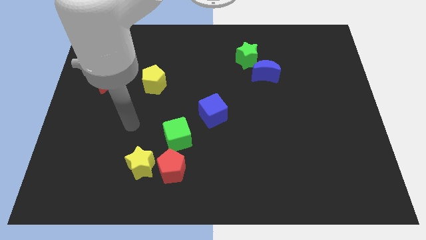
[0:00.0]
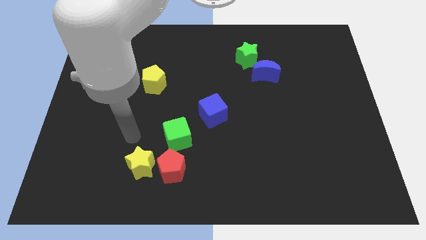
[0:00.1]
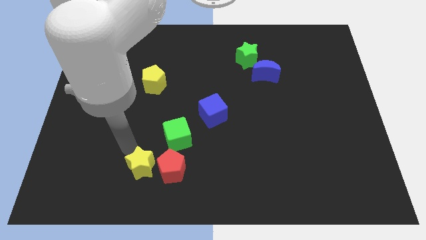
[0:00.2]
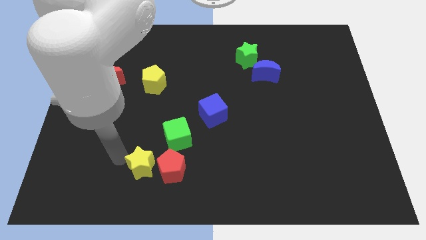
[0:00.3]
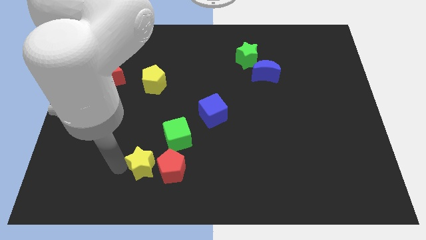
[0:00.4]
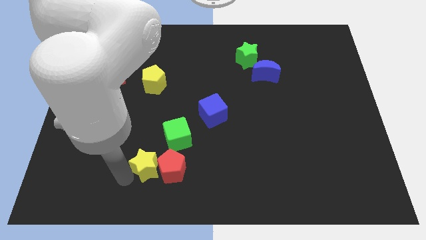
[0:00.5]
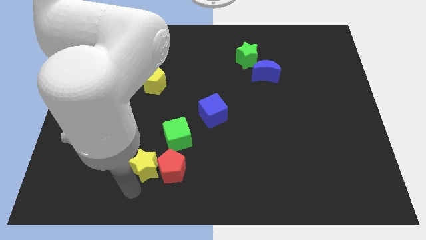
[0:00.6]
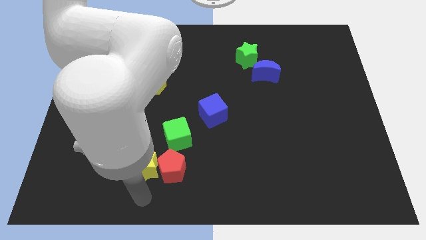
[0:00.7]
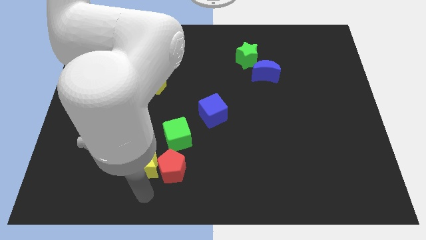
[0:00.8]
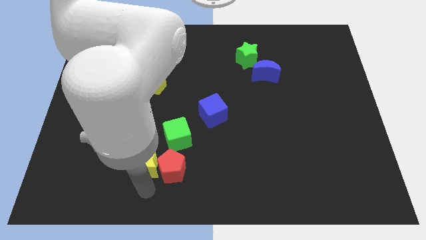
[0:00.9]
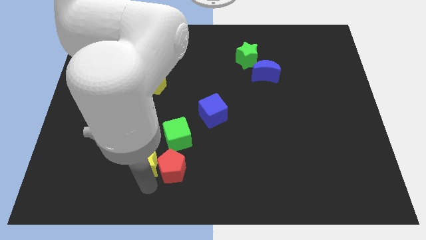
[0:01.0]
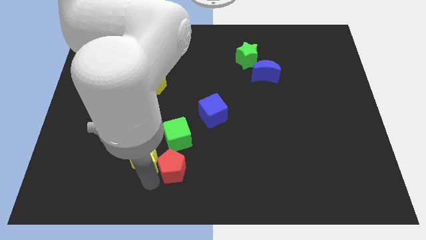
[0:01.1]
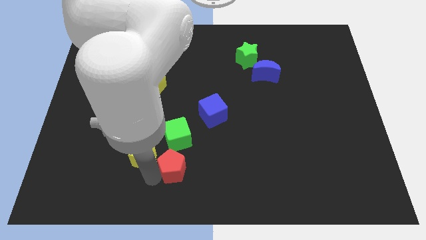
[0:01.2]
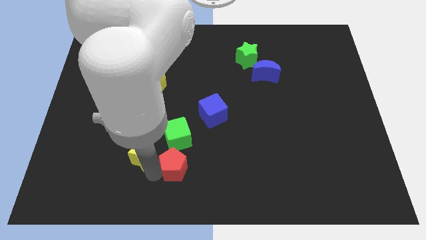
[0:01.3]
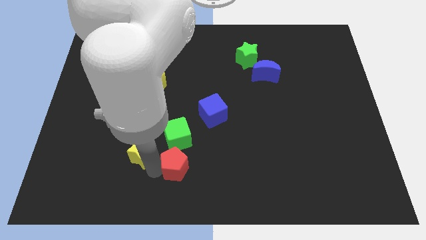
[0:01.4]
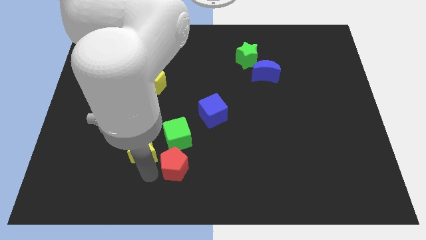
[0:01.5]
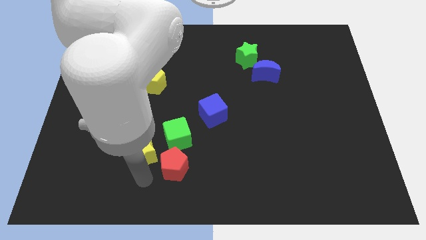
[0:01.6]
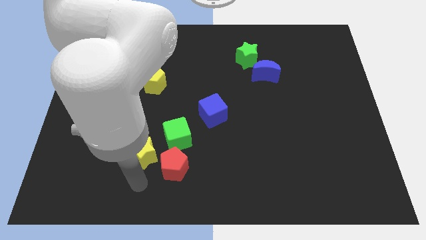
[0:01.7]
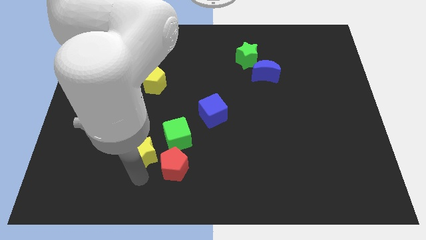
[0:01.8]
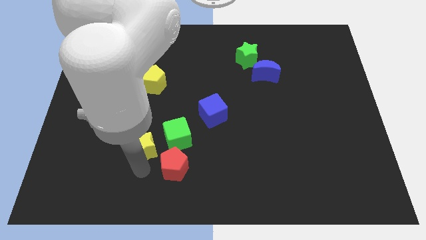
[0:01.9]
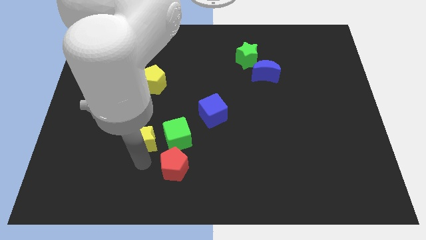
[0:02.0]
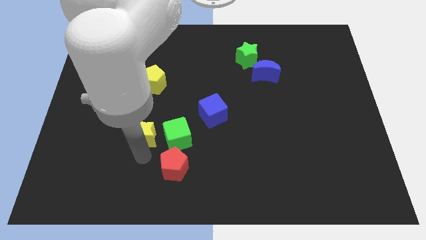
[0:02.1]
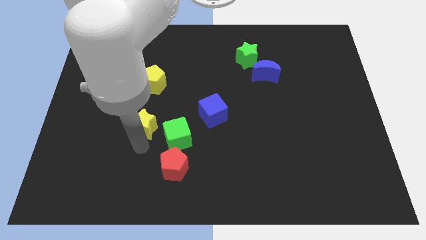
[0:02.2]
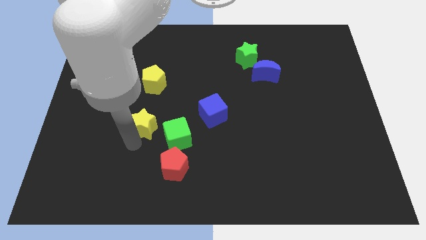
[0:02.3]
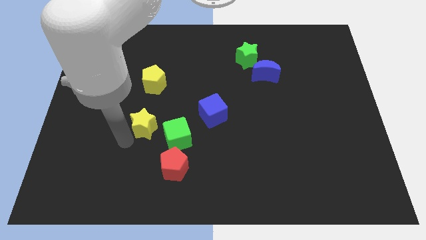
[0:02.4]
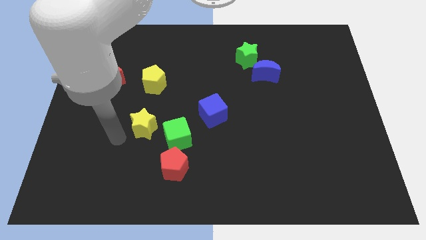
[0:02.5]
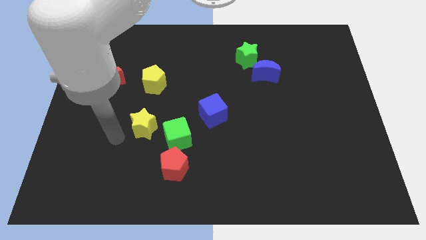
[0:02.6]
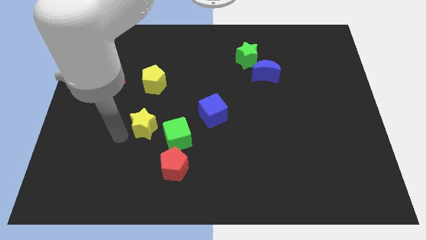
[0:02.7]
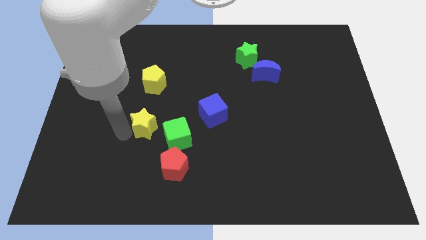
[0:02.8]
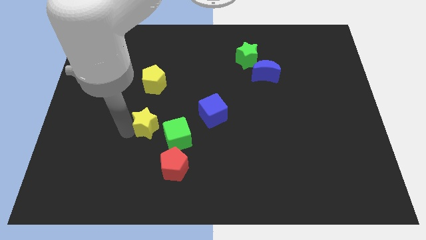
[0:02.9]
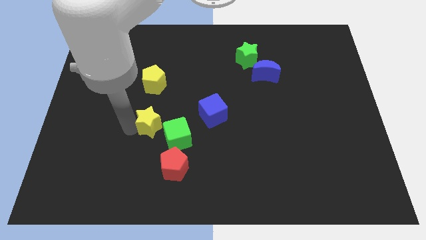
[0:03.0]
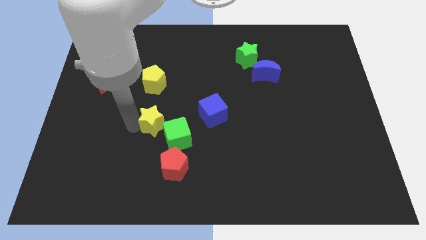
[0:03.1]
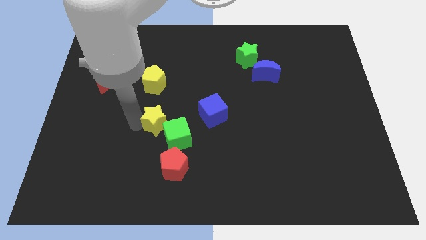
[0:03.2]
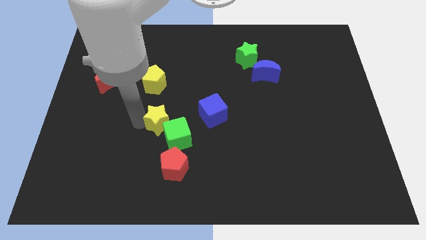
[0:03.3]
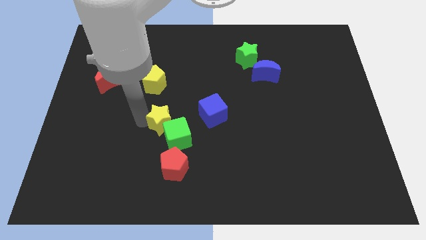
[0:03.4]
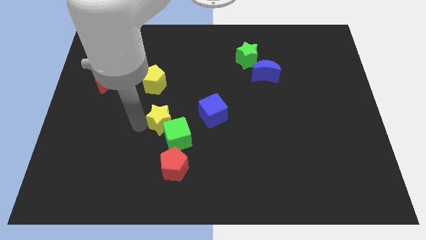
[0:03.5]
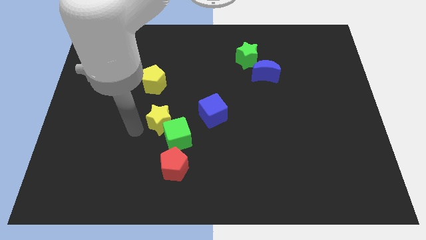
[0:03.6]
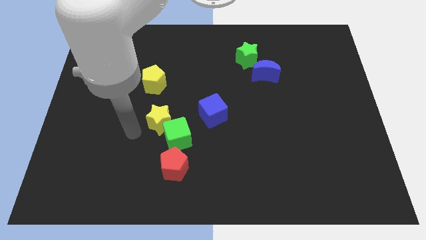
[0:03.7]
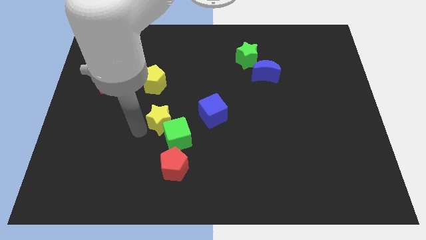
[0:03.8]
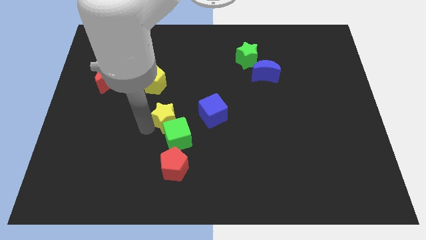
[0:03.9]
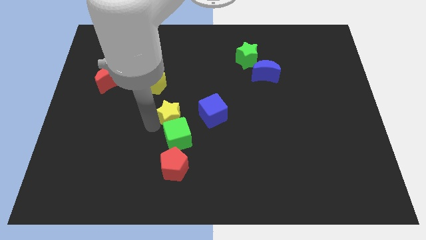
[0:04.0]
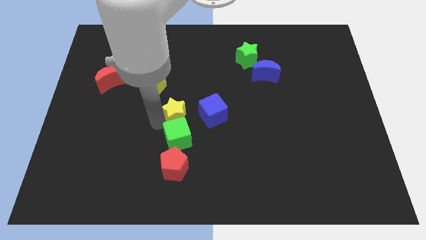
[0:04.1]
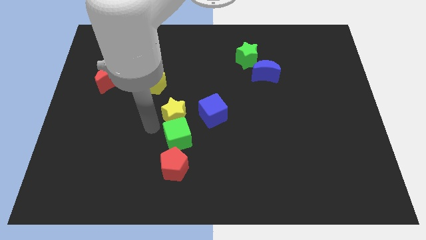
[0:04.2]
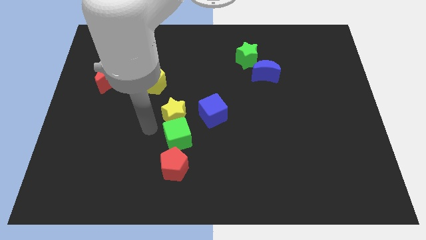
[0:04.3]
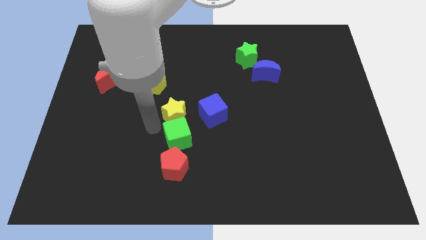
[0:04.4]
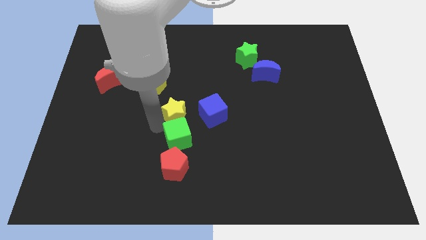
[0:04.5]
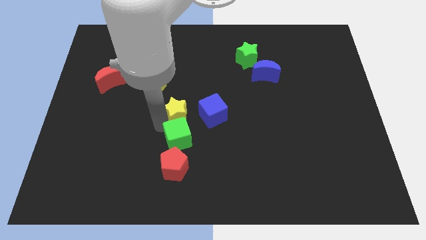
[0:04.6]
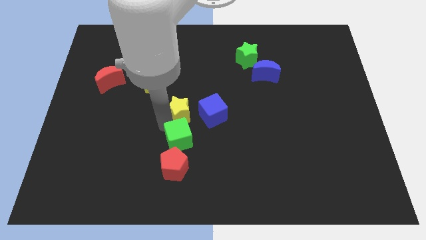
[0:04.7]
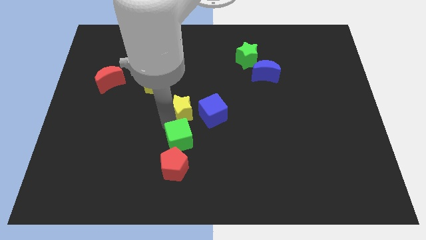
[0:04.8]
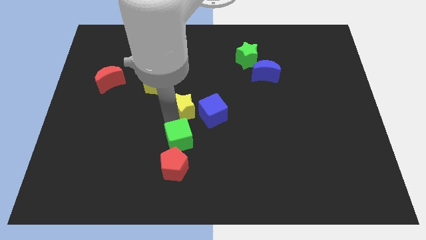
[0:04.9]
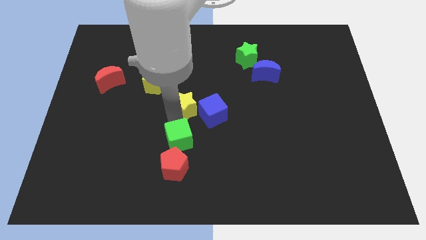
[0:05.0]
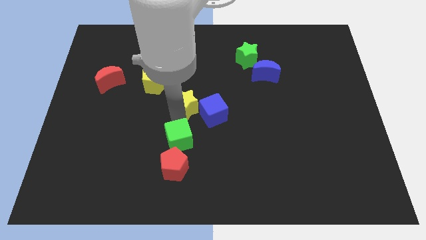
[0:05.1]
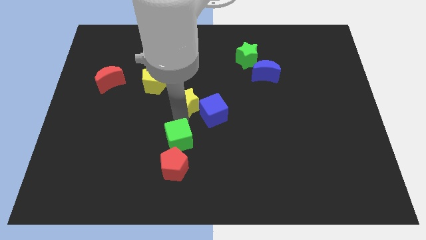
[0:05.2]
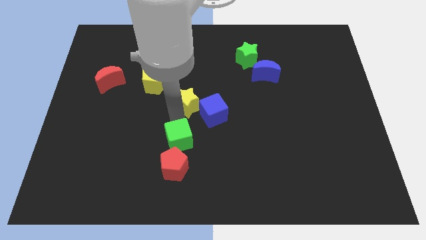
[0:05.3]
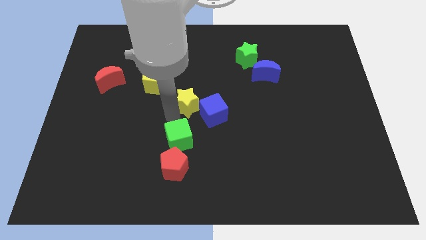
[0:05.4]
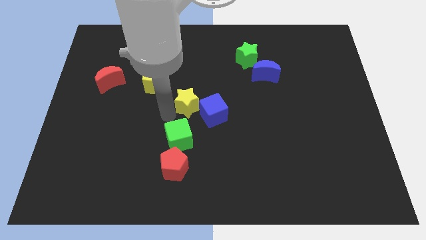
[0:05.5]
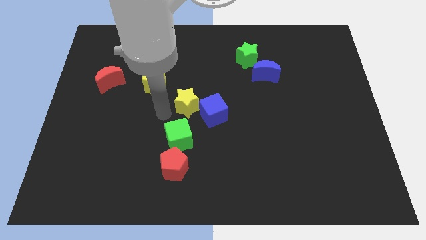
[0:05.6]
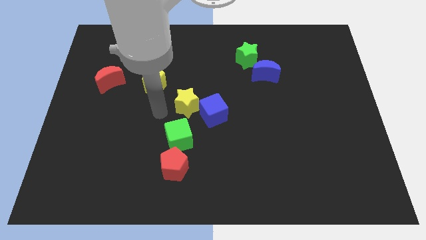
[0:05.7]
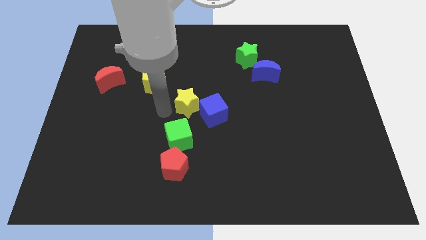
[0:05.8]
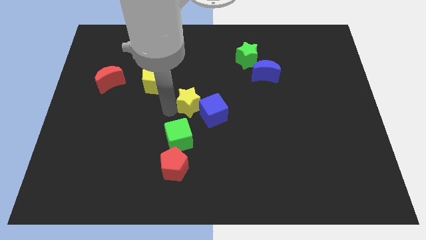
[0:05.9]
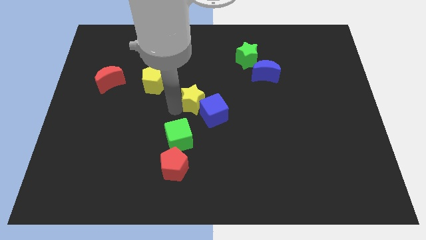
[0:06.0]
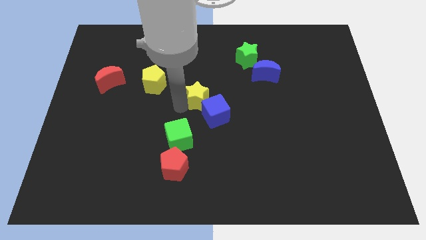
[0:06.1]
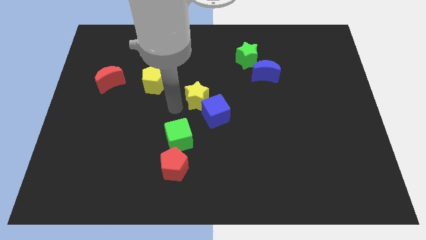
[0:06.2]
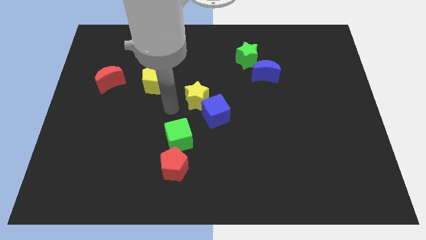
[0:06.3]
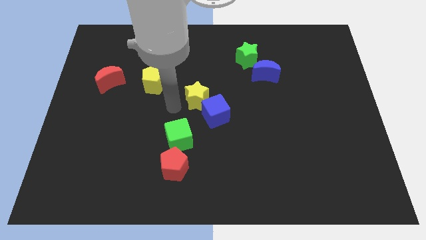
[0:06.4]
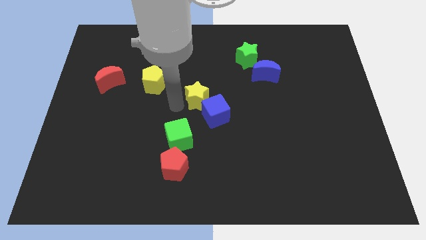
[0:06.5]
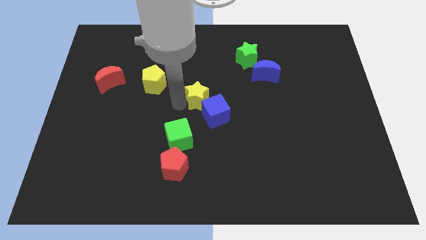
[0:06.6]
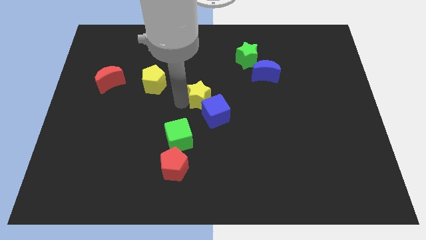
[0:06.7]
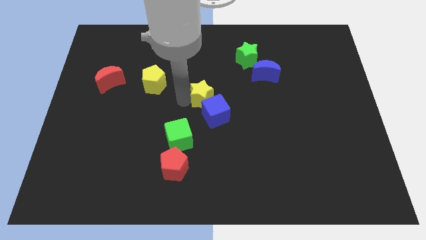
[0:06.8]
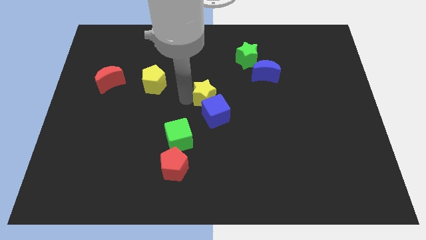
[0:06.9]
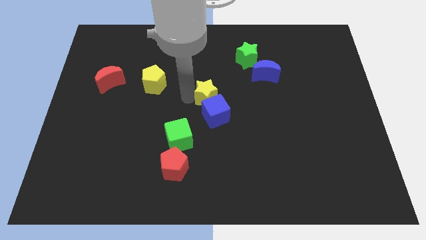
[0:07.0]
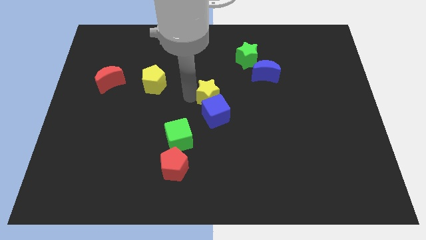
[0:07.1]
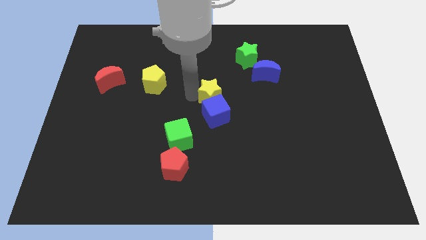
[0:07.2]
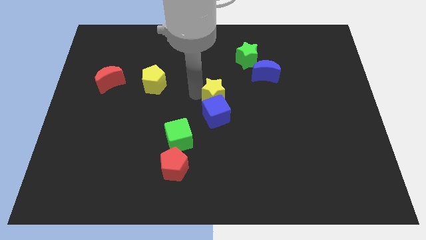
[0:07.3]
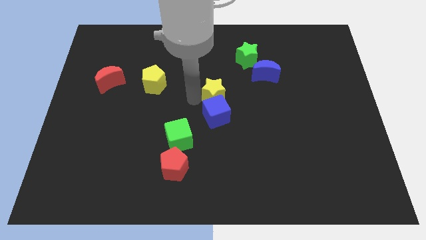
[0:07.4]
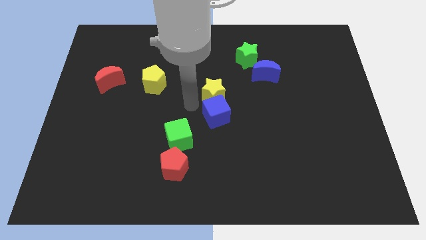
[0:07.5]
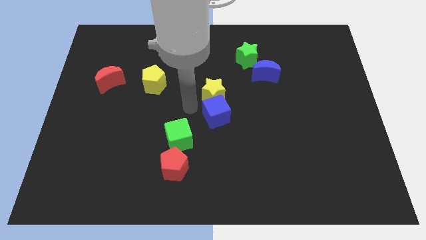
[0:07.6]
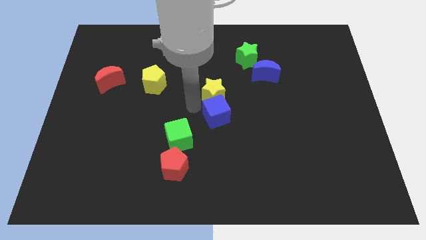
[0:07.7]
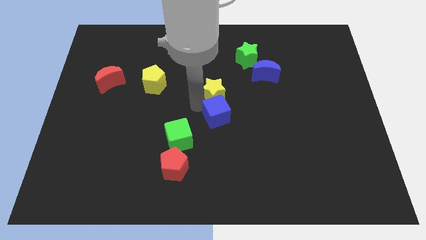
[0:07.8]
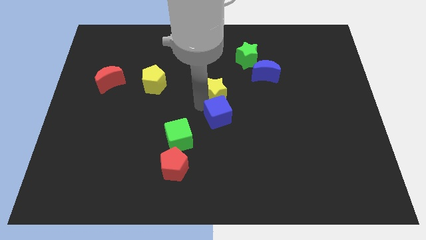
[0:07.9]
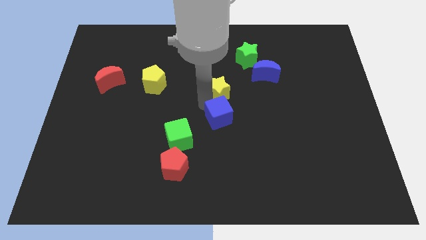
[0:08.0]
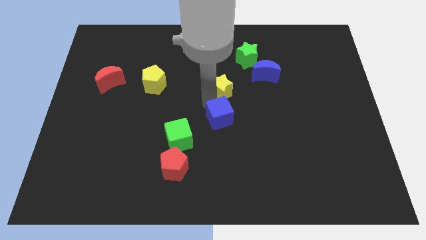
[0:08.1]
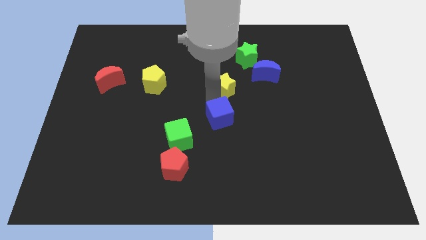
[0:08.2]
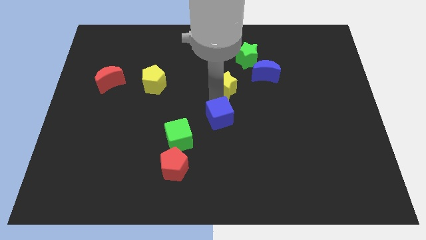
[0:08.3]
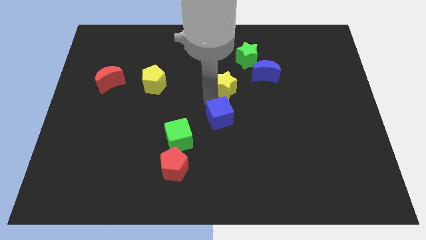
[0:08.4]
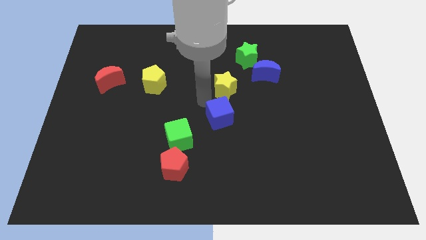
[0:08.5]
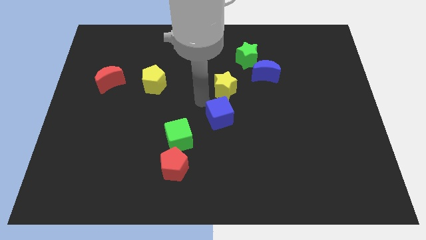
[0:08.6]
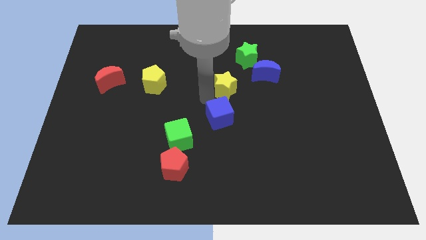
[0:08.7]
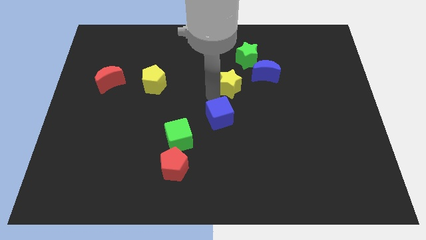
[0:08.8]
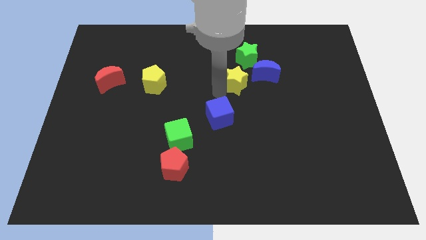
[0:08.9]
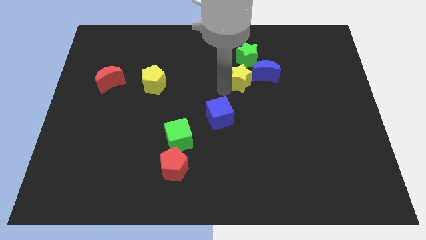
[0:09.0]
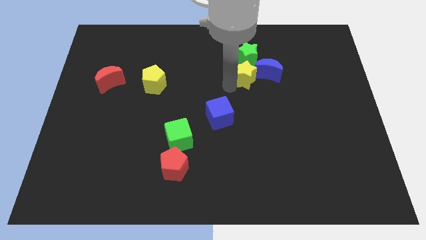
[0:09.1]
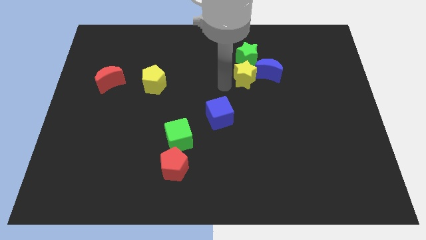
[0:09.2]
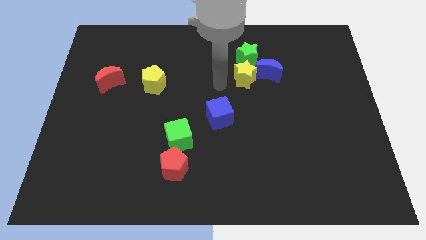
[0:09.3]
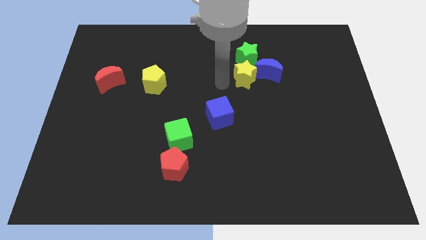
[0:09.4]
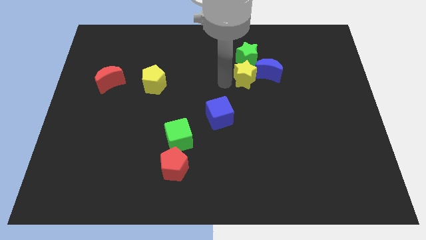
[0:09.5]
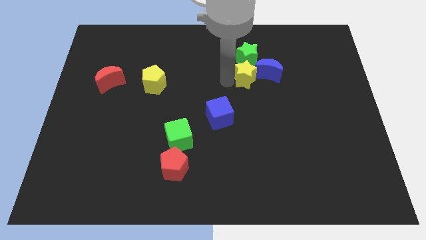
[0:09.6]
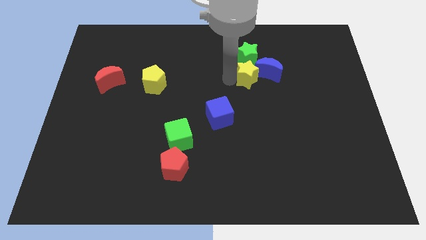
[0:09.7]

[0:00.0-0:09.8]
slide the yellow star towards the blue moon
